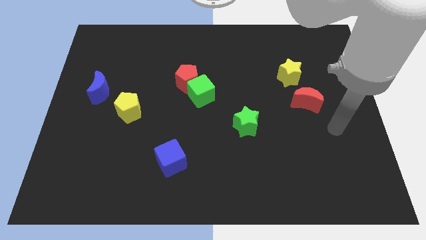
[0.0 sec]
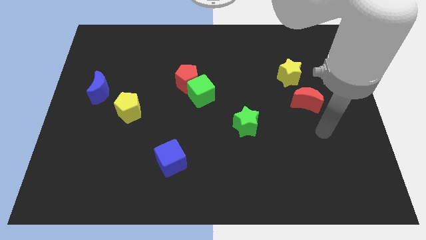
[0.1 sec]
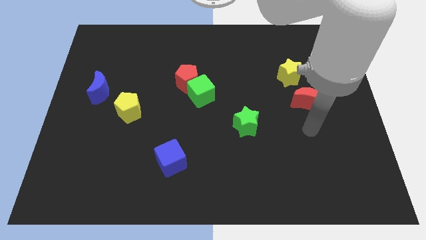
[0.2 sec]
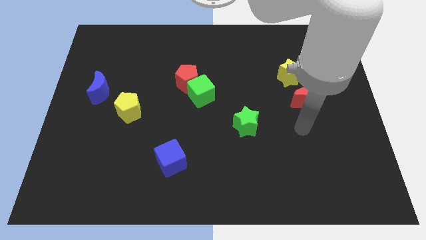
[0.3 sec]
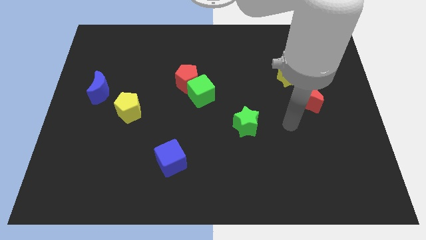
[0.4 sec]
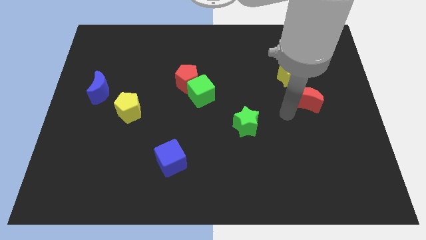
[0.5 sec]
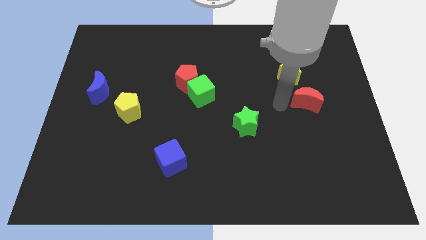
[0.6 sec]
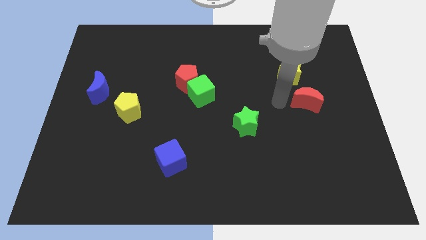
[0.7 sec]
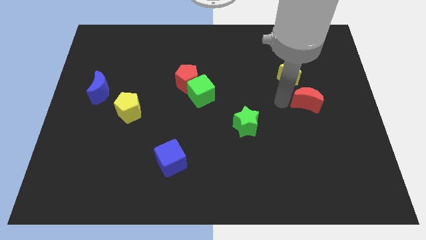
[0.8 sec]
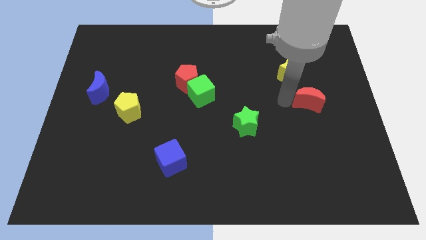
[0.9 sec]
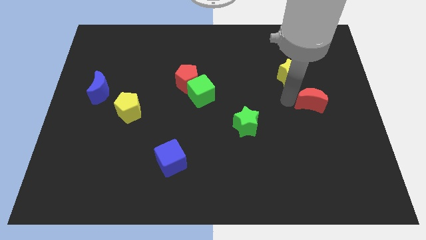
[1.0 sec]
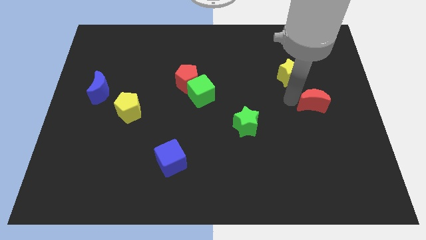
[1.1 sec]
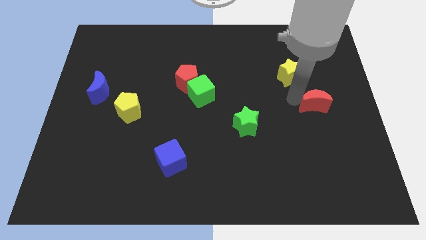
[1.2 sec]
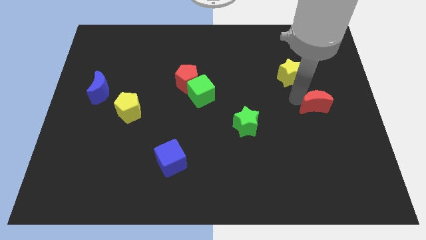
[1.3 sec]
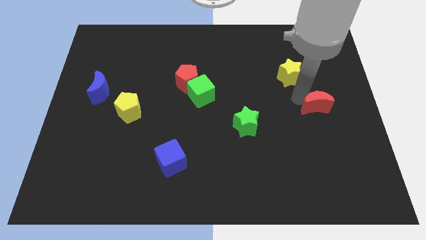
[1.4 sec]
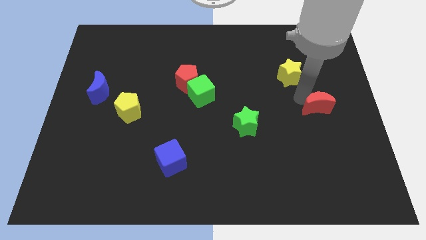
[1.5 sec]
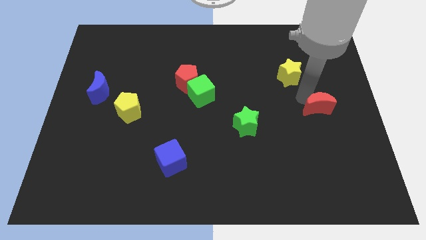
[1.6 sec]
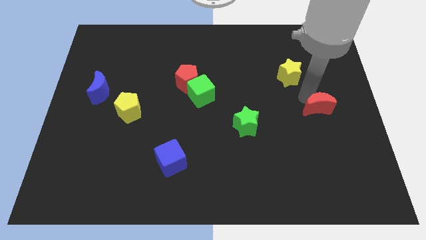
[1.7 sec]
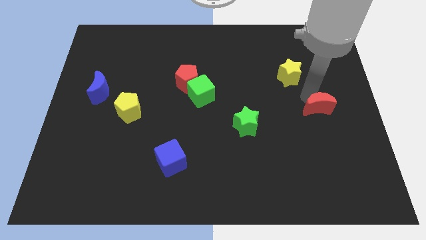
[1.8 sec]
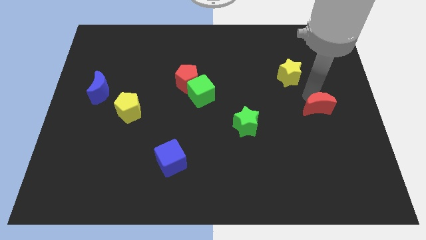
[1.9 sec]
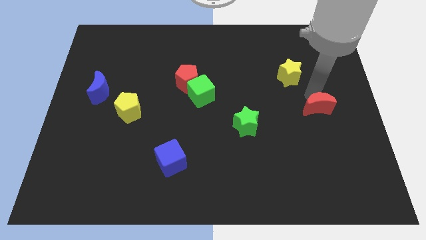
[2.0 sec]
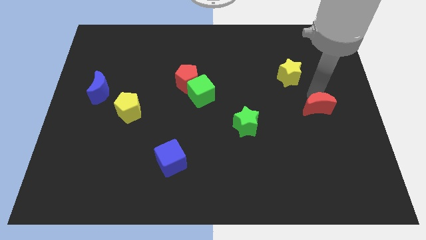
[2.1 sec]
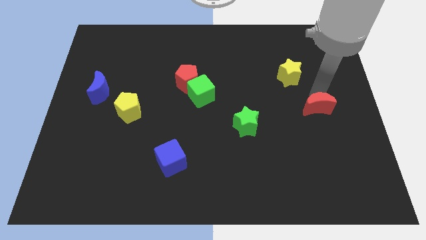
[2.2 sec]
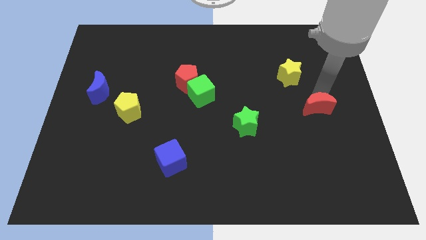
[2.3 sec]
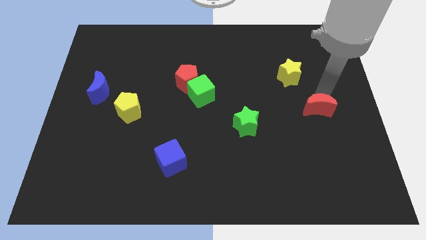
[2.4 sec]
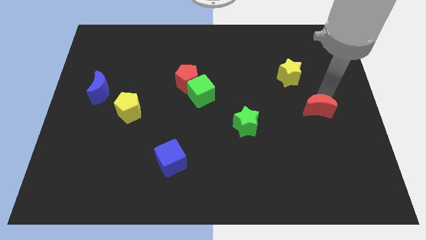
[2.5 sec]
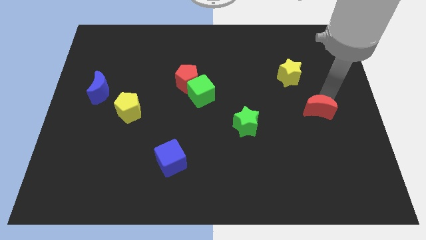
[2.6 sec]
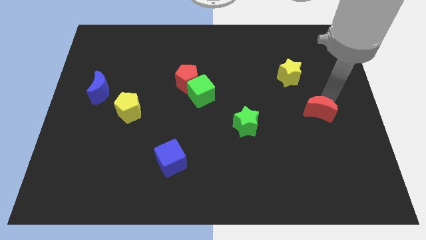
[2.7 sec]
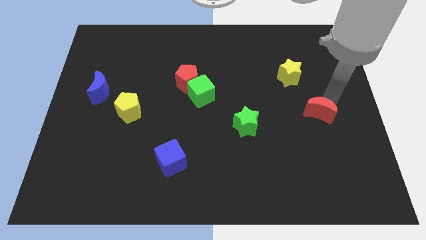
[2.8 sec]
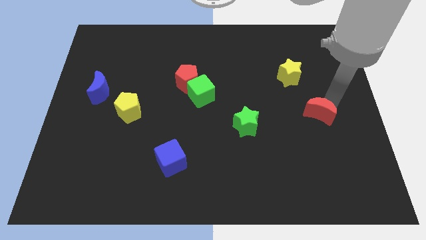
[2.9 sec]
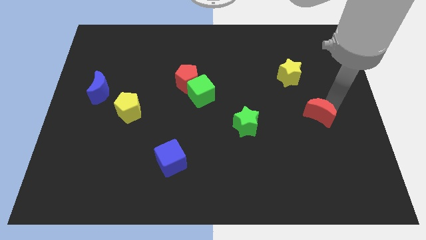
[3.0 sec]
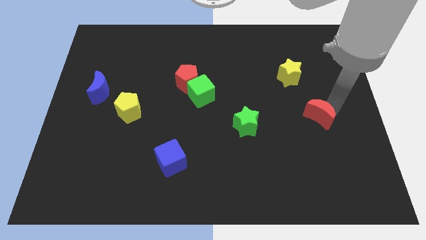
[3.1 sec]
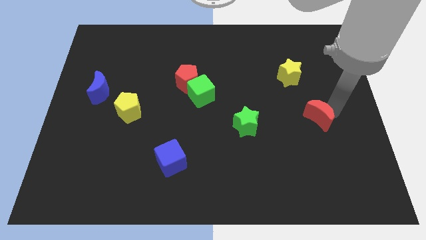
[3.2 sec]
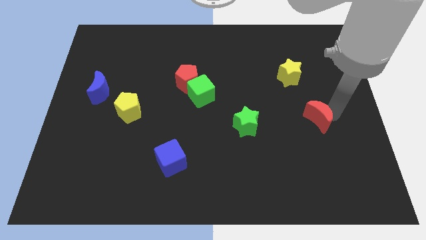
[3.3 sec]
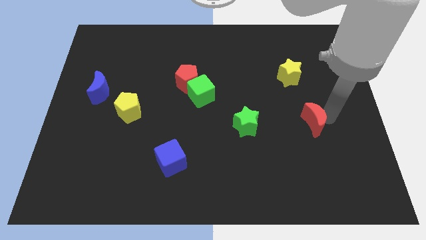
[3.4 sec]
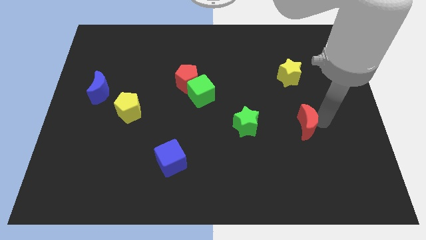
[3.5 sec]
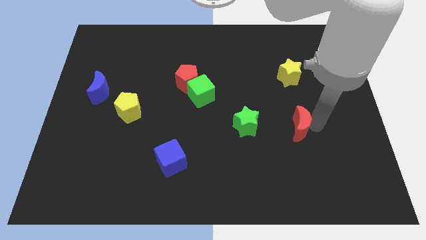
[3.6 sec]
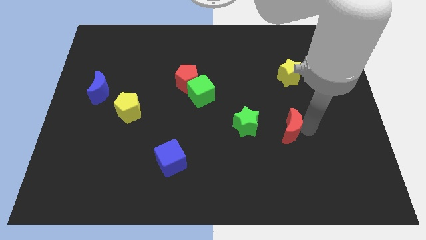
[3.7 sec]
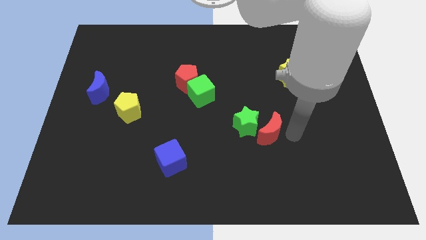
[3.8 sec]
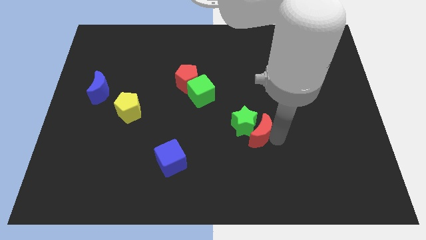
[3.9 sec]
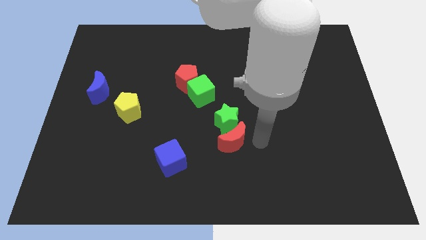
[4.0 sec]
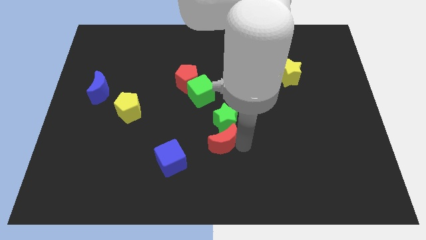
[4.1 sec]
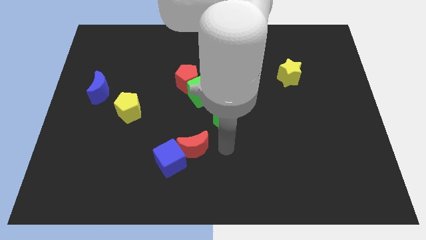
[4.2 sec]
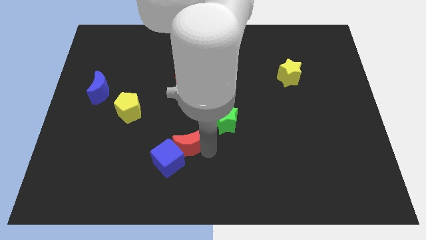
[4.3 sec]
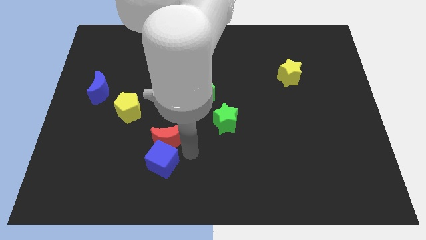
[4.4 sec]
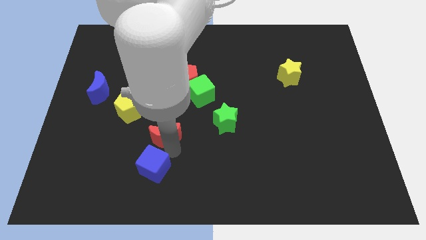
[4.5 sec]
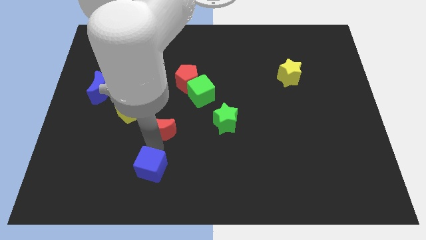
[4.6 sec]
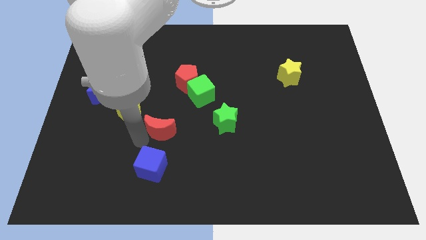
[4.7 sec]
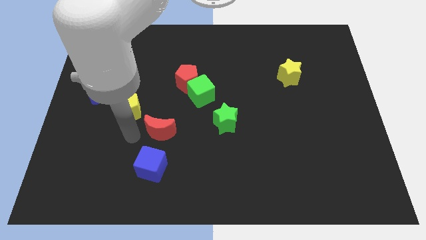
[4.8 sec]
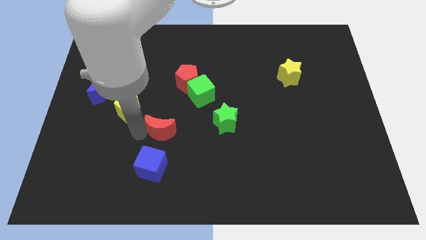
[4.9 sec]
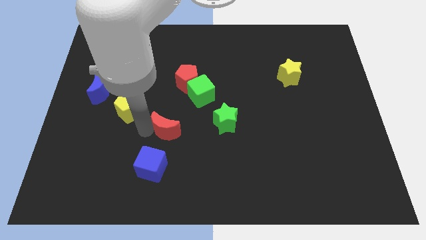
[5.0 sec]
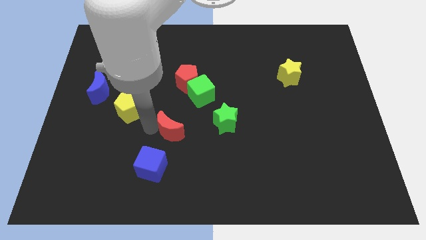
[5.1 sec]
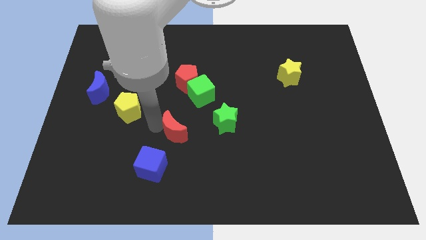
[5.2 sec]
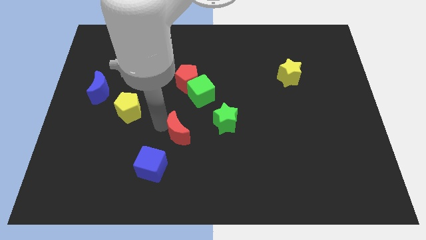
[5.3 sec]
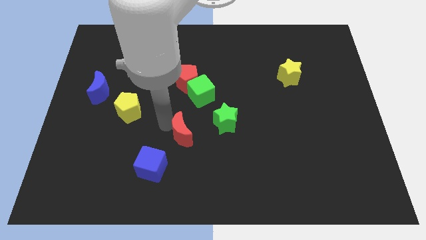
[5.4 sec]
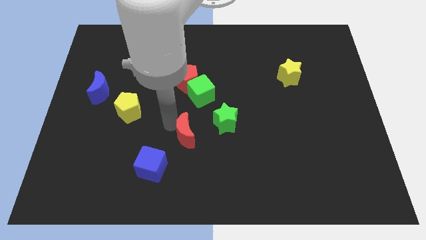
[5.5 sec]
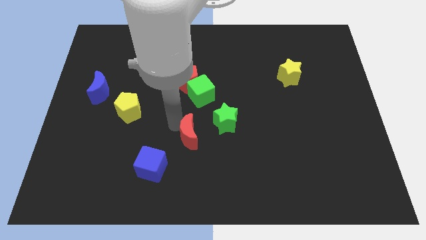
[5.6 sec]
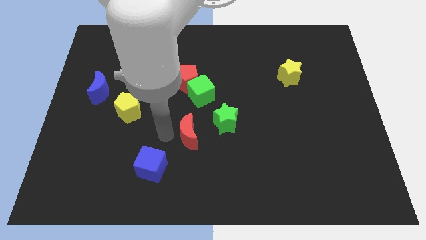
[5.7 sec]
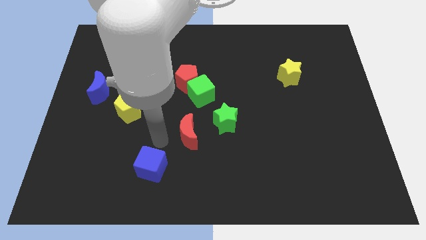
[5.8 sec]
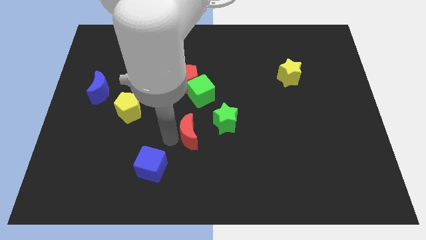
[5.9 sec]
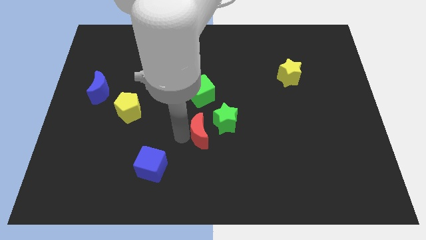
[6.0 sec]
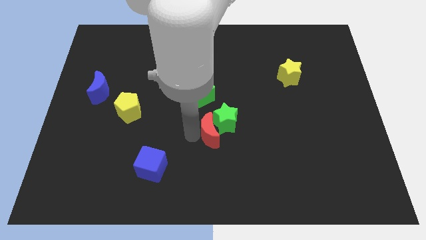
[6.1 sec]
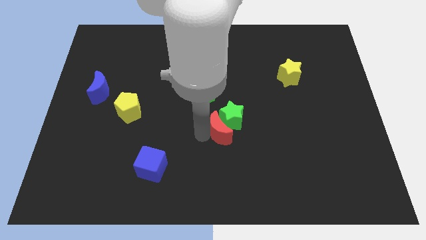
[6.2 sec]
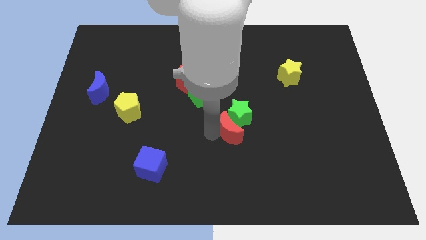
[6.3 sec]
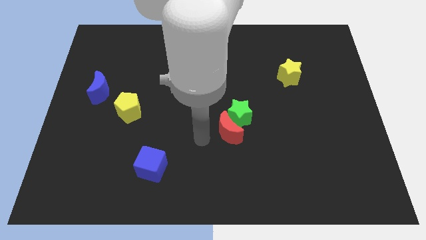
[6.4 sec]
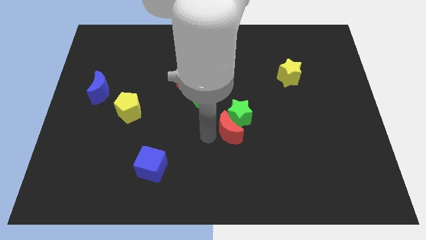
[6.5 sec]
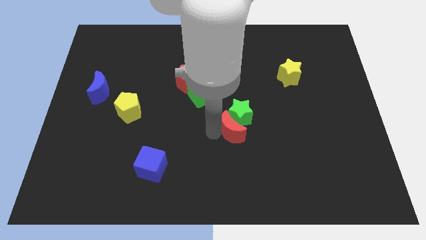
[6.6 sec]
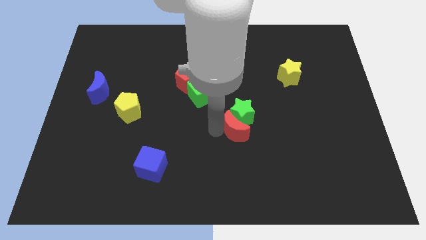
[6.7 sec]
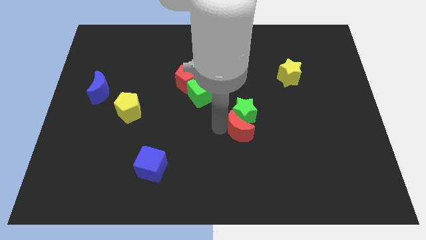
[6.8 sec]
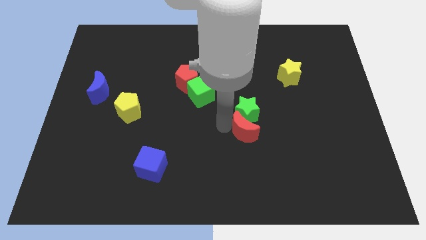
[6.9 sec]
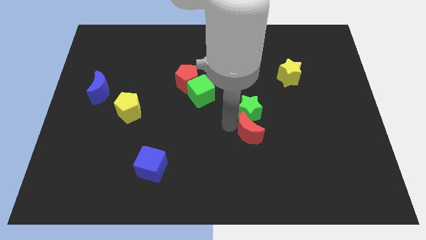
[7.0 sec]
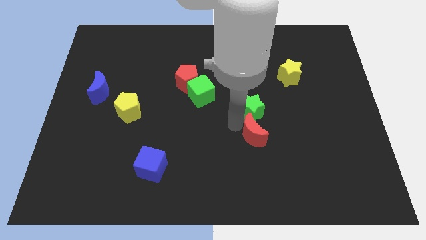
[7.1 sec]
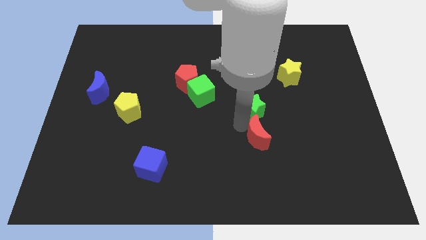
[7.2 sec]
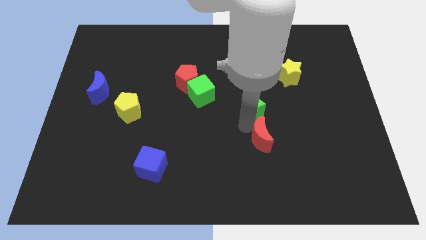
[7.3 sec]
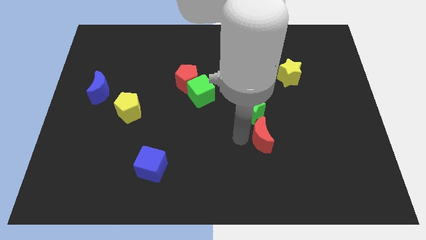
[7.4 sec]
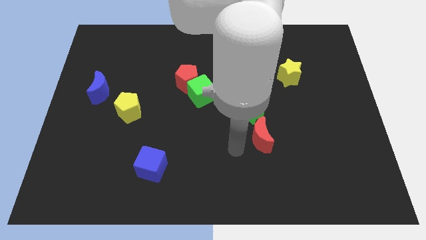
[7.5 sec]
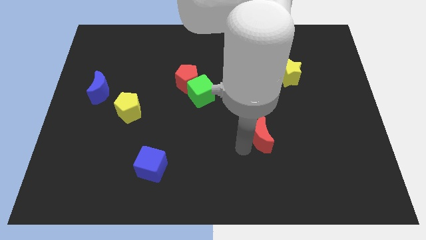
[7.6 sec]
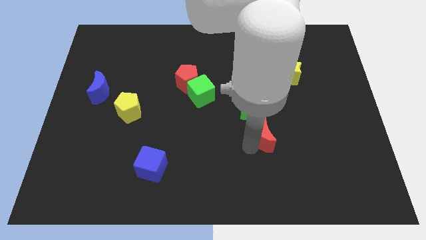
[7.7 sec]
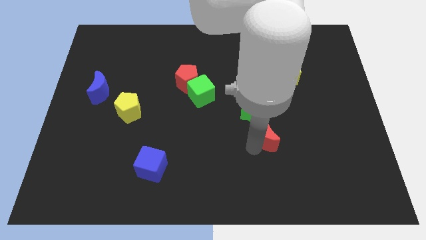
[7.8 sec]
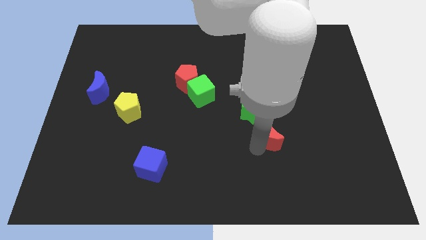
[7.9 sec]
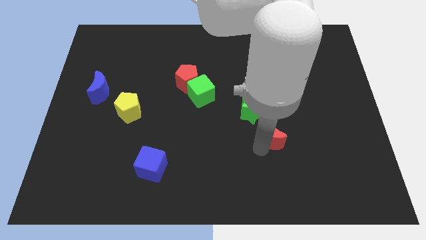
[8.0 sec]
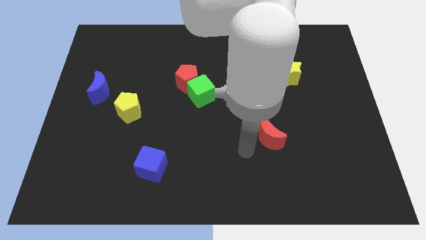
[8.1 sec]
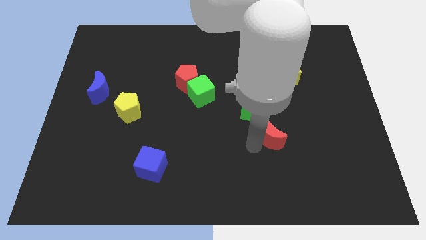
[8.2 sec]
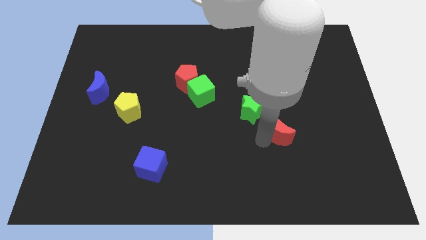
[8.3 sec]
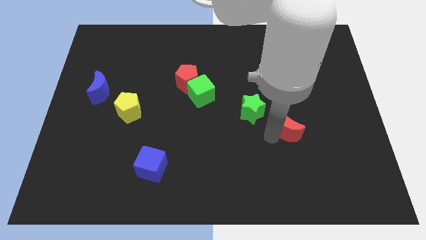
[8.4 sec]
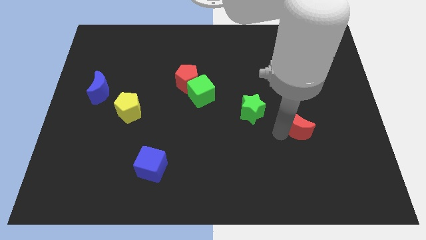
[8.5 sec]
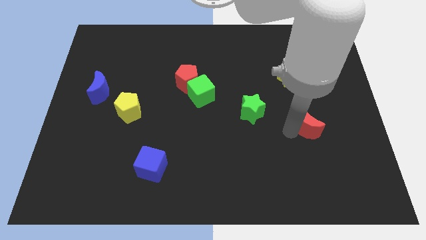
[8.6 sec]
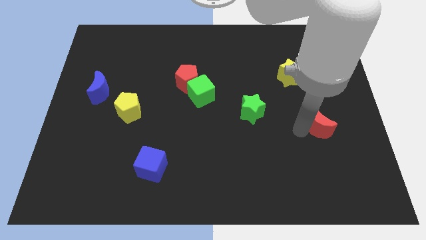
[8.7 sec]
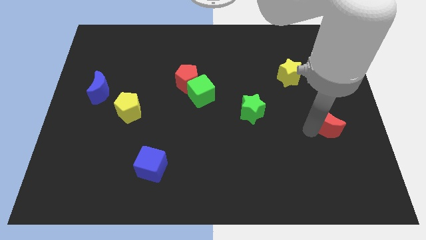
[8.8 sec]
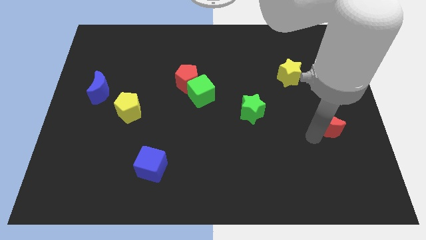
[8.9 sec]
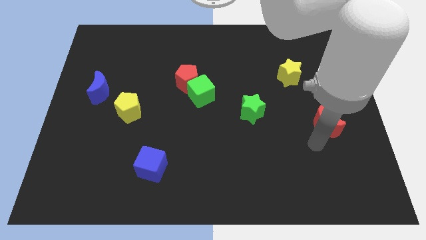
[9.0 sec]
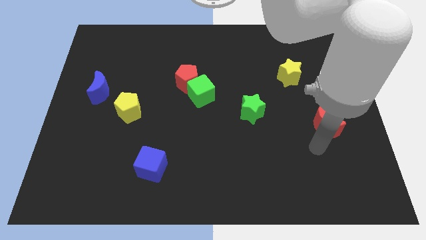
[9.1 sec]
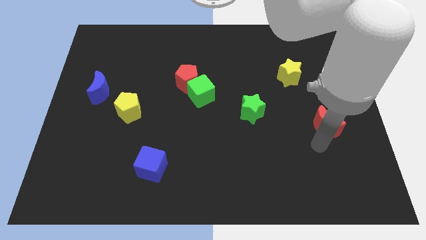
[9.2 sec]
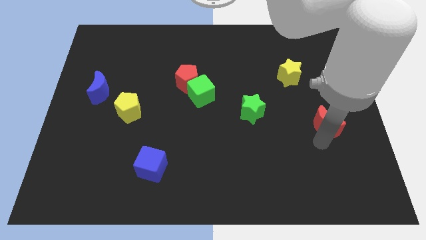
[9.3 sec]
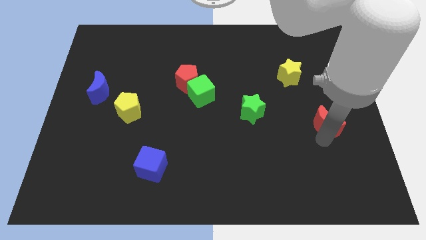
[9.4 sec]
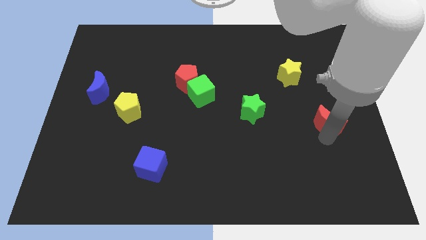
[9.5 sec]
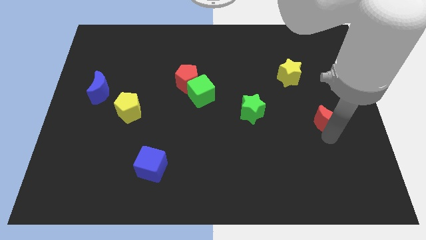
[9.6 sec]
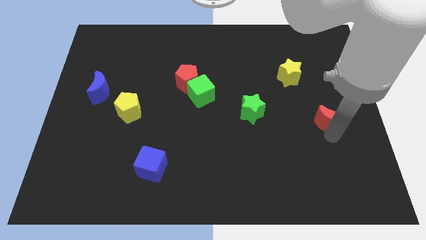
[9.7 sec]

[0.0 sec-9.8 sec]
slide the red moon to the right side
